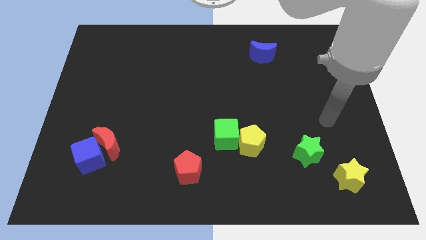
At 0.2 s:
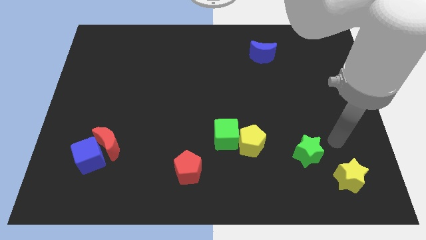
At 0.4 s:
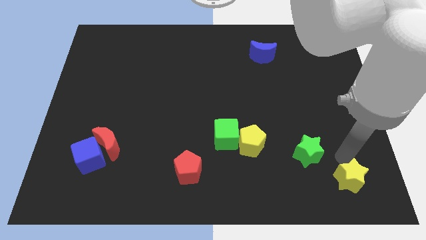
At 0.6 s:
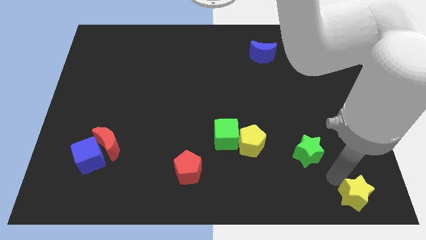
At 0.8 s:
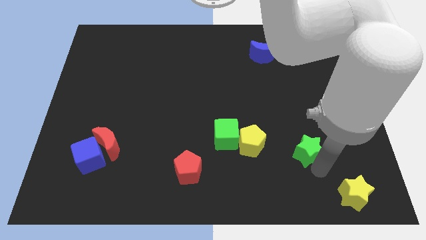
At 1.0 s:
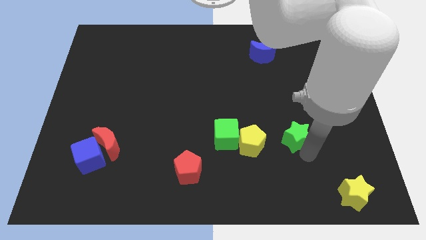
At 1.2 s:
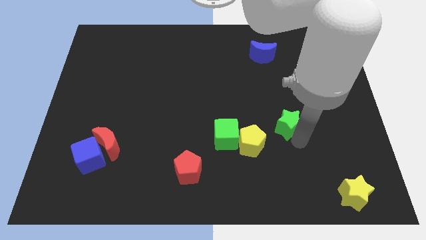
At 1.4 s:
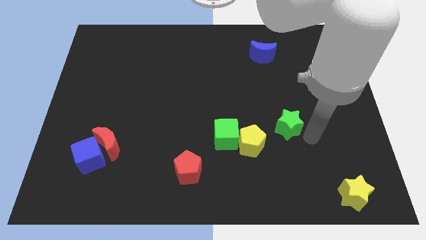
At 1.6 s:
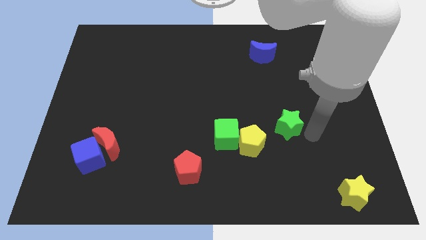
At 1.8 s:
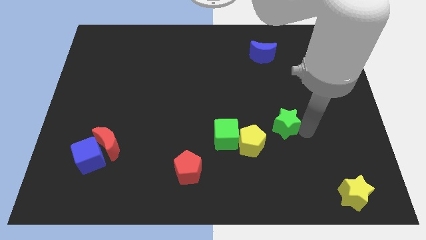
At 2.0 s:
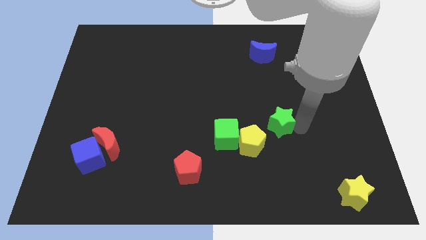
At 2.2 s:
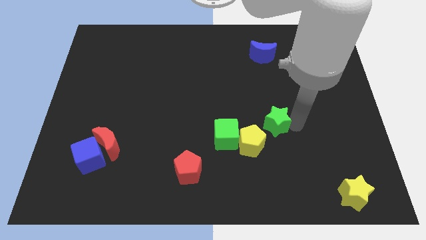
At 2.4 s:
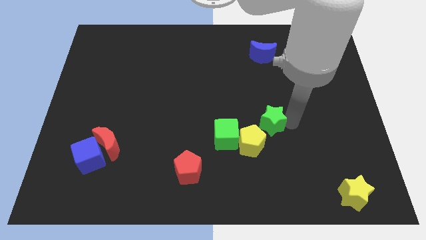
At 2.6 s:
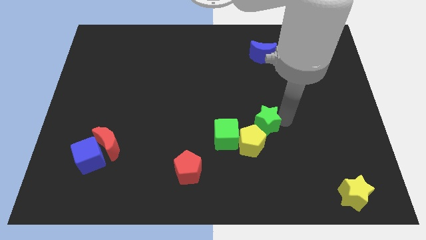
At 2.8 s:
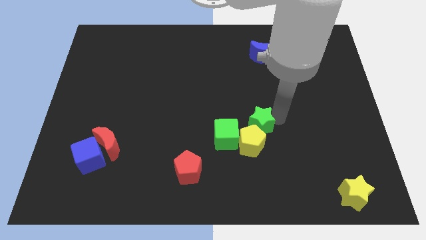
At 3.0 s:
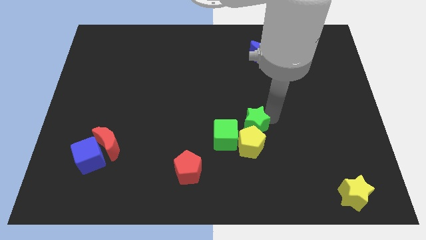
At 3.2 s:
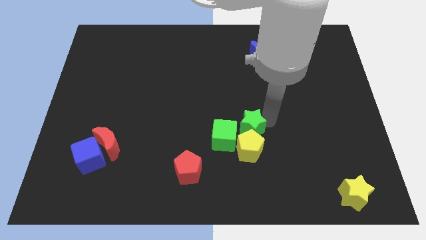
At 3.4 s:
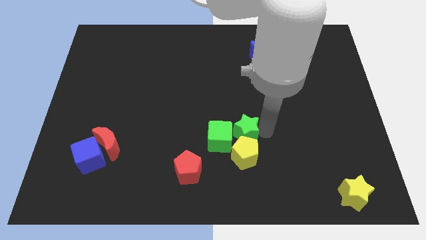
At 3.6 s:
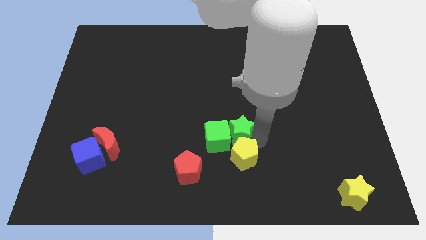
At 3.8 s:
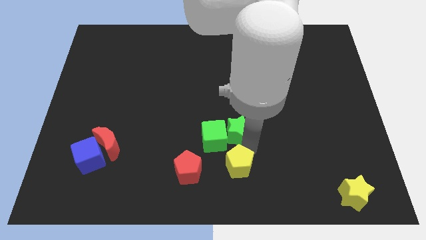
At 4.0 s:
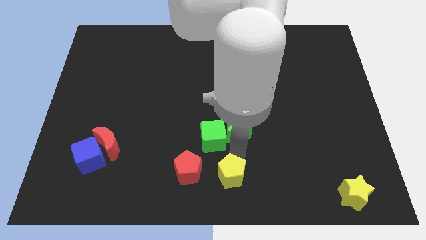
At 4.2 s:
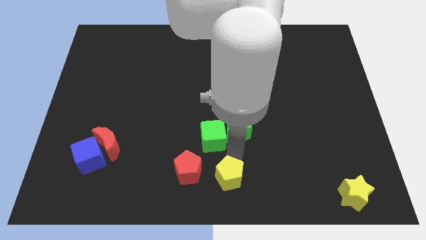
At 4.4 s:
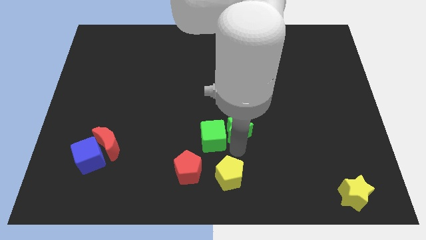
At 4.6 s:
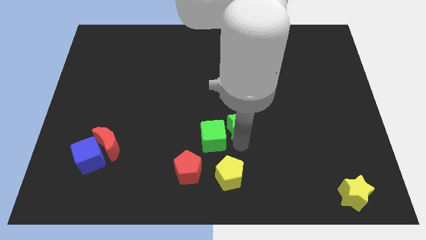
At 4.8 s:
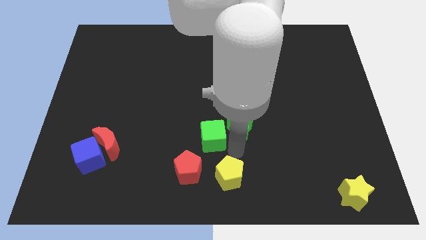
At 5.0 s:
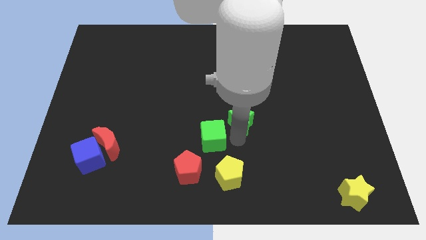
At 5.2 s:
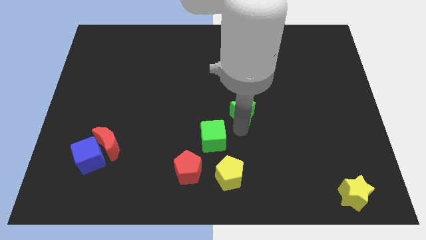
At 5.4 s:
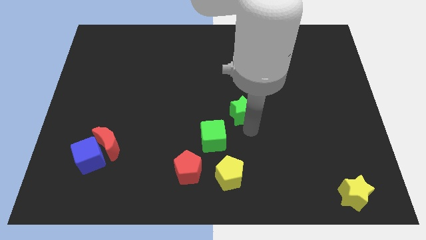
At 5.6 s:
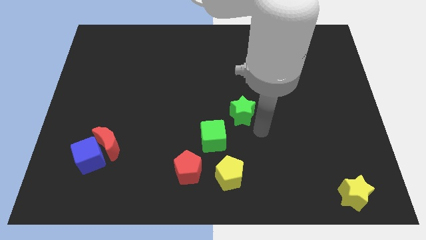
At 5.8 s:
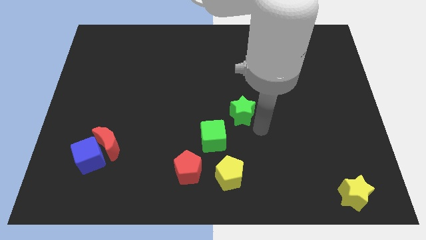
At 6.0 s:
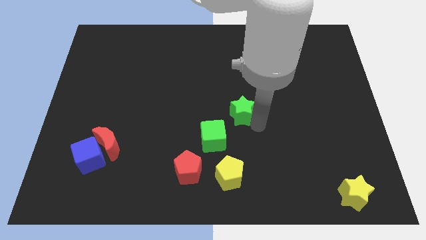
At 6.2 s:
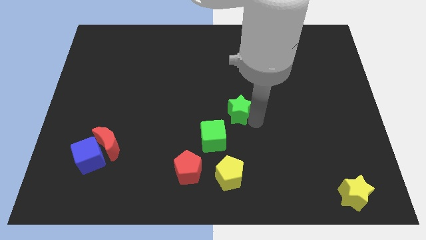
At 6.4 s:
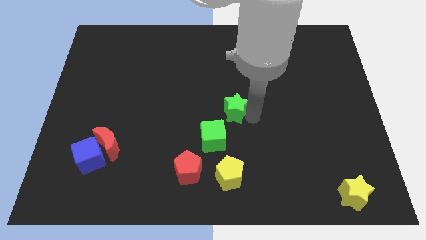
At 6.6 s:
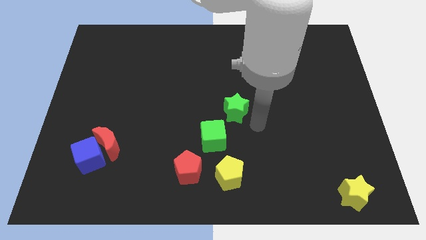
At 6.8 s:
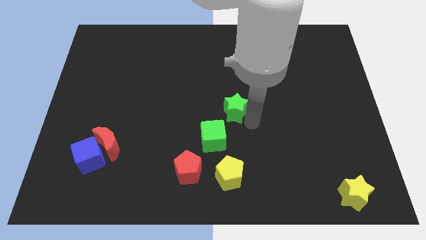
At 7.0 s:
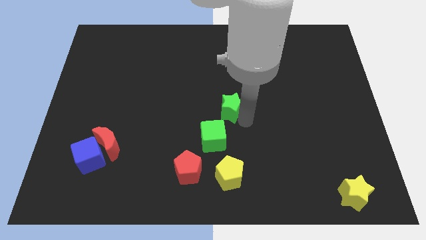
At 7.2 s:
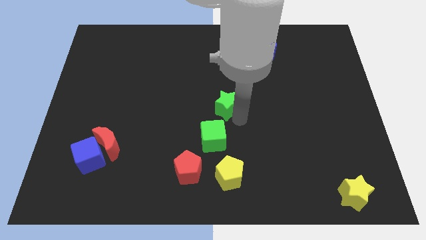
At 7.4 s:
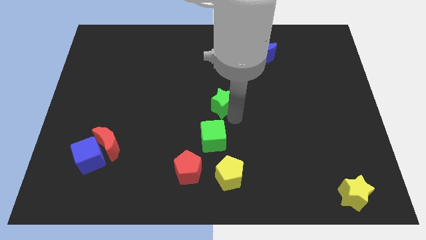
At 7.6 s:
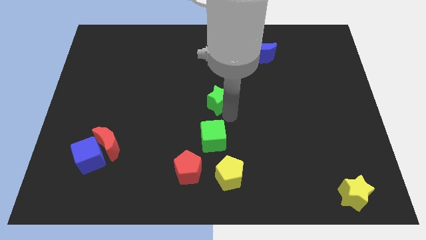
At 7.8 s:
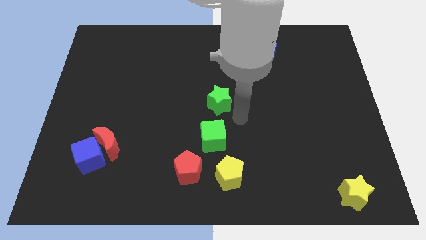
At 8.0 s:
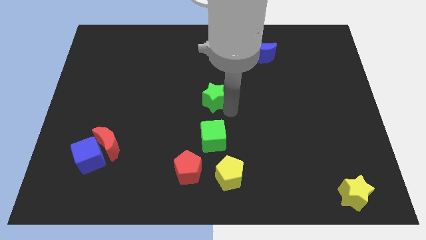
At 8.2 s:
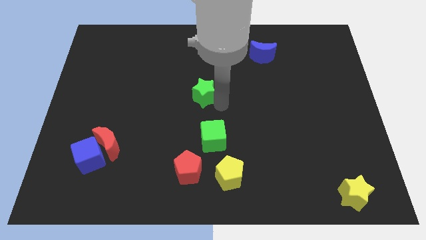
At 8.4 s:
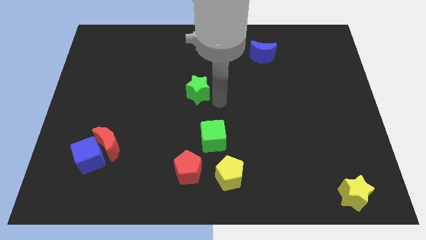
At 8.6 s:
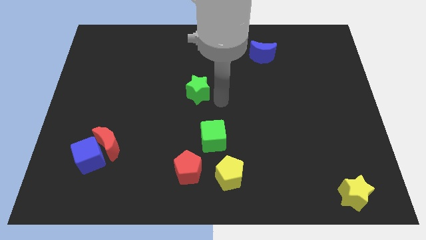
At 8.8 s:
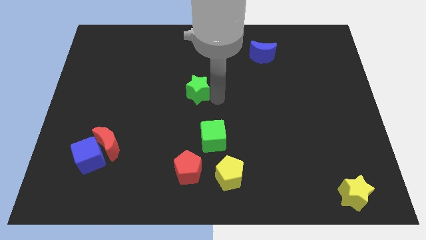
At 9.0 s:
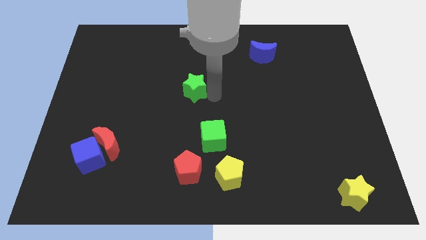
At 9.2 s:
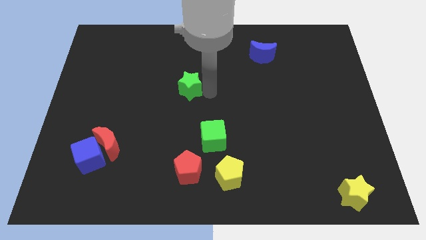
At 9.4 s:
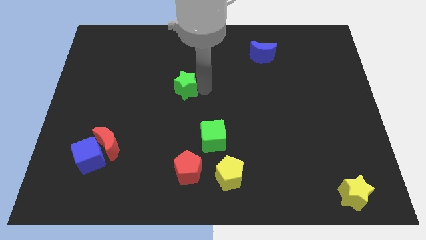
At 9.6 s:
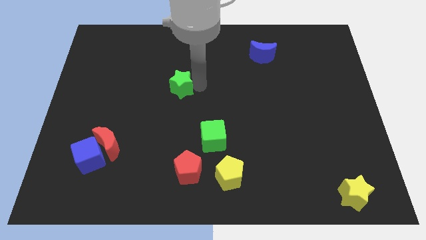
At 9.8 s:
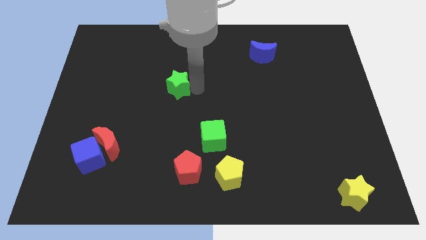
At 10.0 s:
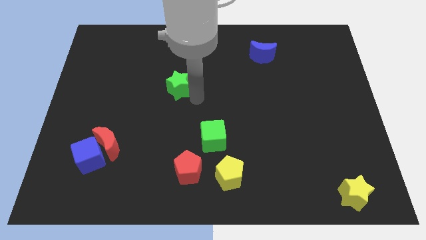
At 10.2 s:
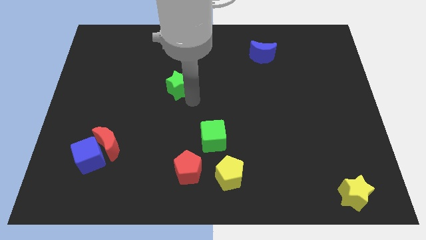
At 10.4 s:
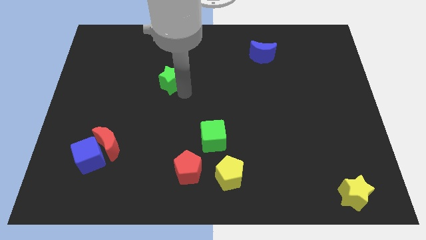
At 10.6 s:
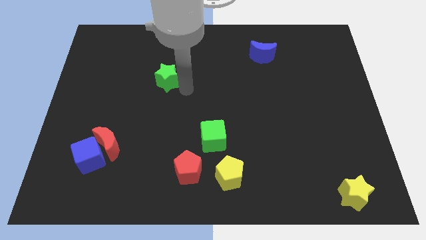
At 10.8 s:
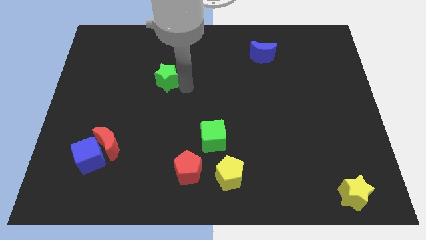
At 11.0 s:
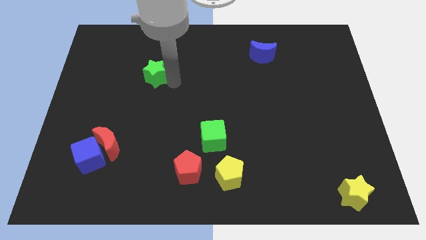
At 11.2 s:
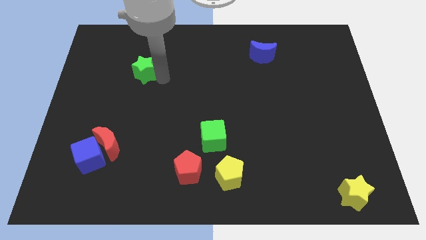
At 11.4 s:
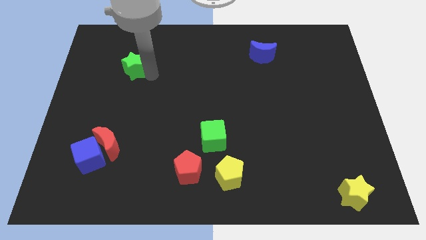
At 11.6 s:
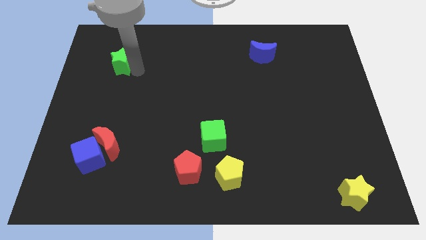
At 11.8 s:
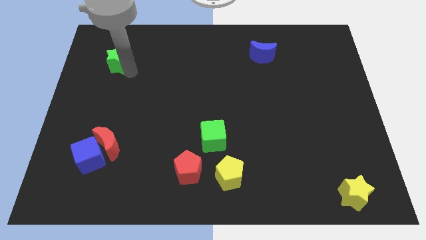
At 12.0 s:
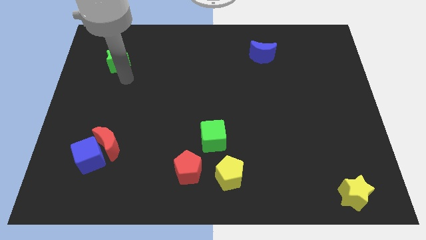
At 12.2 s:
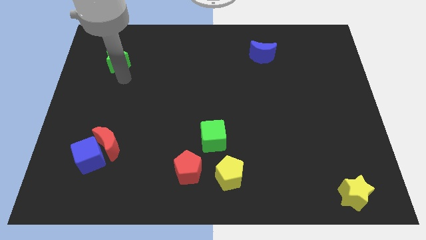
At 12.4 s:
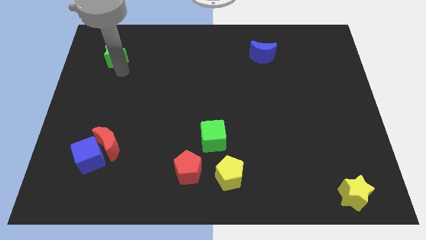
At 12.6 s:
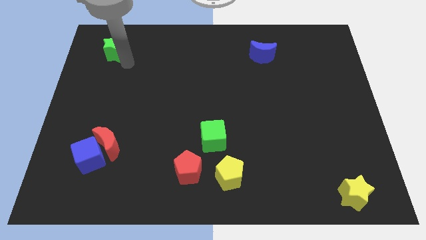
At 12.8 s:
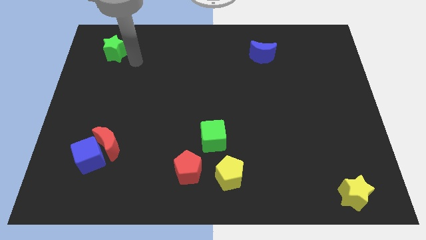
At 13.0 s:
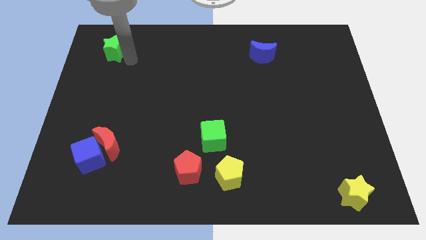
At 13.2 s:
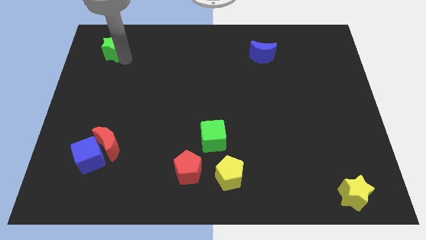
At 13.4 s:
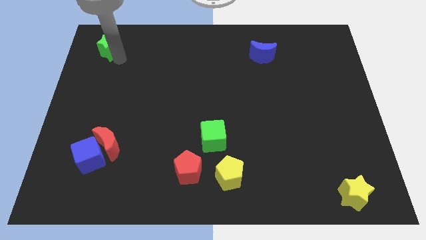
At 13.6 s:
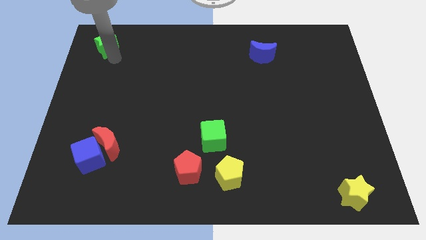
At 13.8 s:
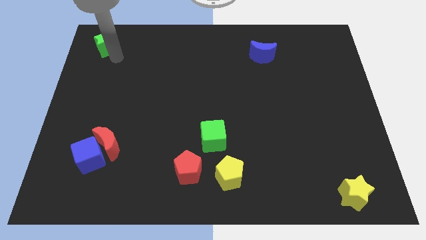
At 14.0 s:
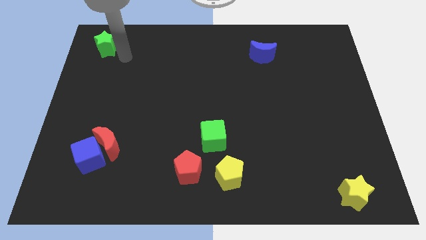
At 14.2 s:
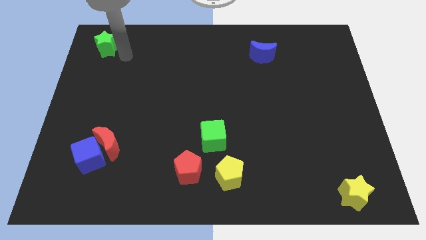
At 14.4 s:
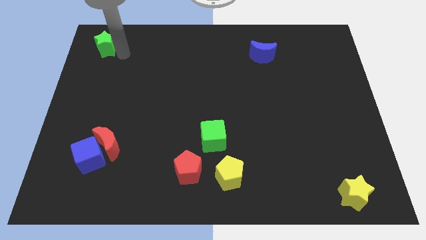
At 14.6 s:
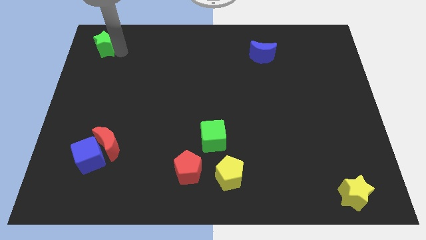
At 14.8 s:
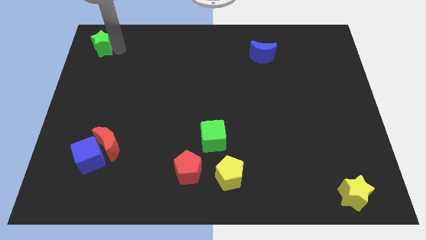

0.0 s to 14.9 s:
put the green star to the top left of the board
